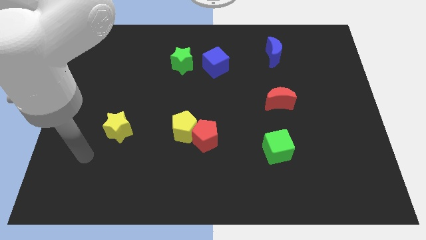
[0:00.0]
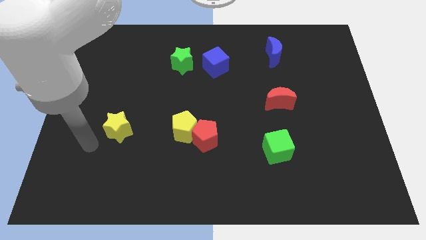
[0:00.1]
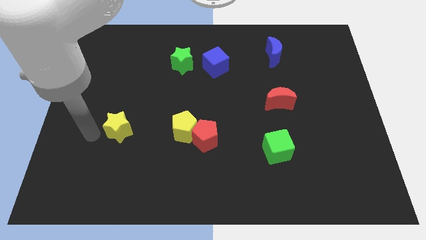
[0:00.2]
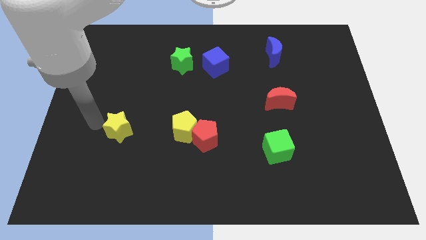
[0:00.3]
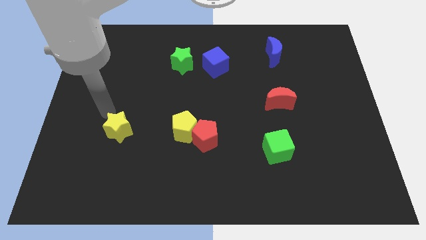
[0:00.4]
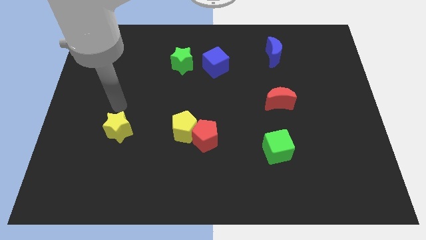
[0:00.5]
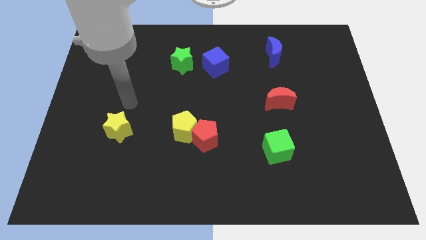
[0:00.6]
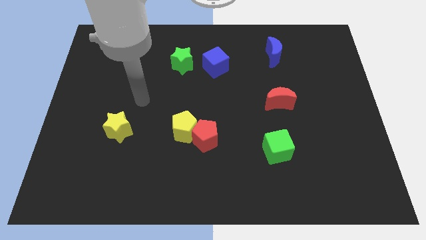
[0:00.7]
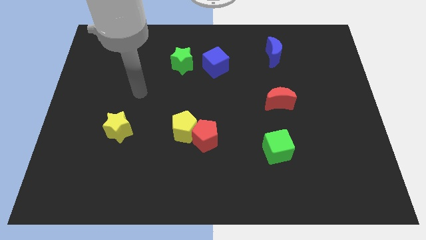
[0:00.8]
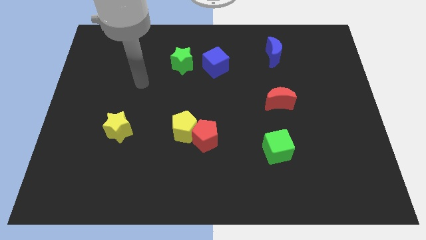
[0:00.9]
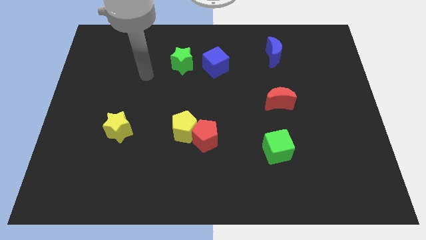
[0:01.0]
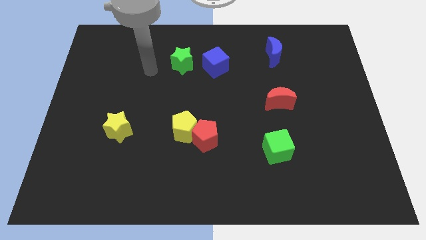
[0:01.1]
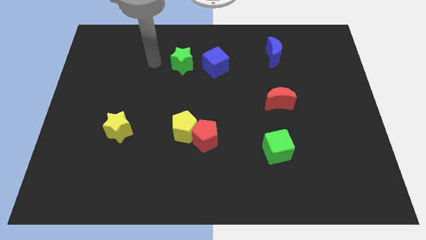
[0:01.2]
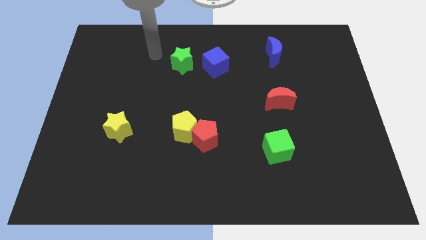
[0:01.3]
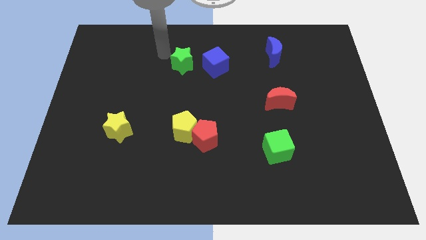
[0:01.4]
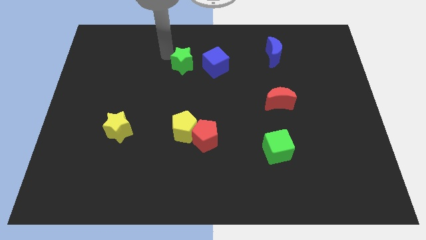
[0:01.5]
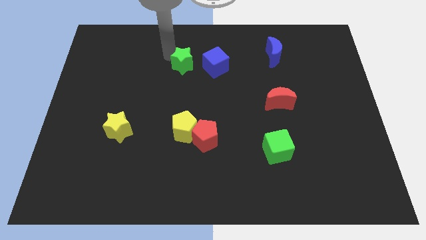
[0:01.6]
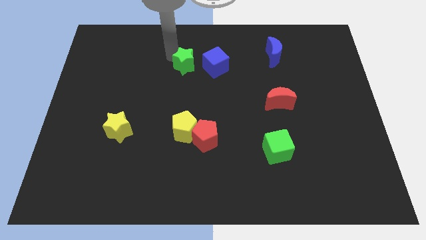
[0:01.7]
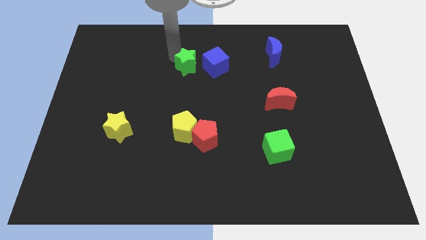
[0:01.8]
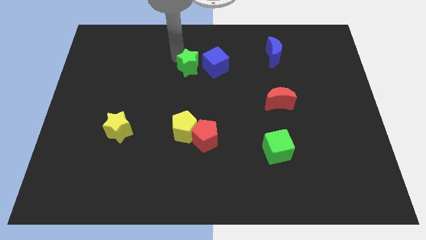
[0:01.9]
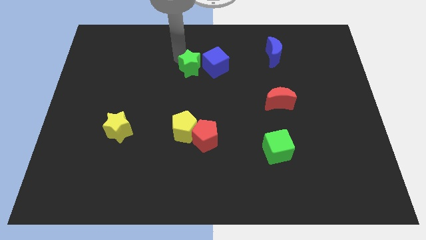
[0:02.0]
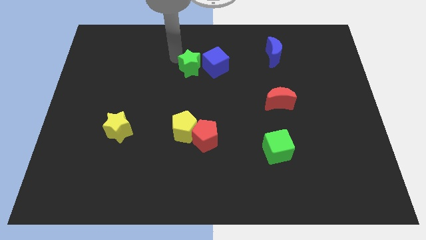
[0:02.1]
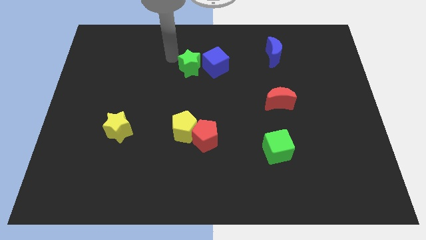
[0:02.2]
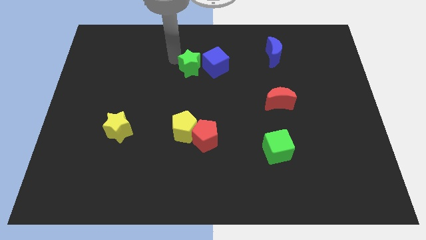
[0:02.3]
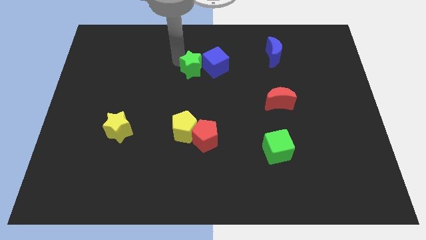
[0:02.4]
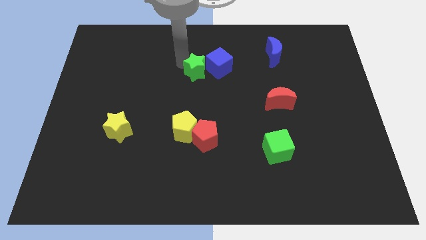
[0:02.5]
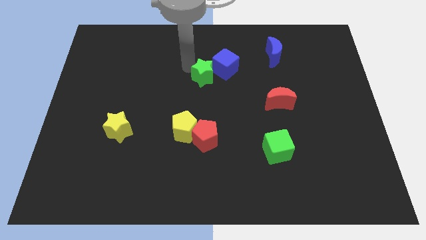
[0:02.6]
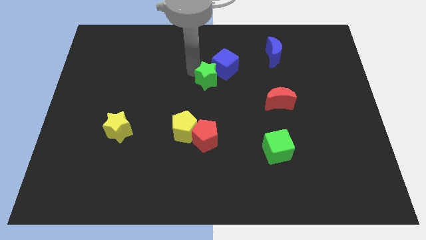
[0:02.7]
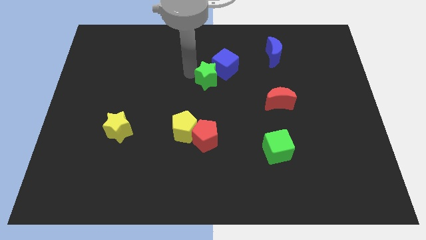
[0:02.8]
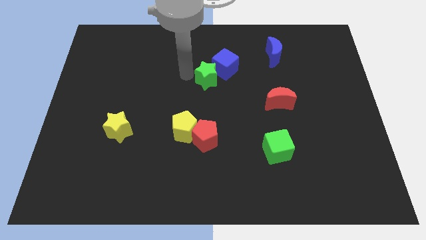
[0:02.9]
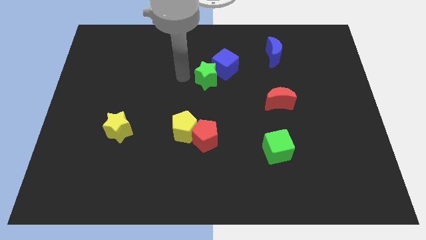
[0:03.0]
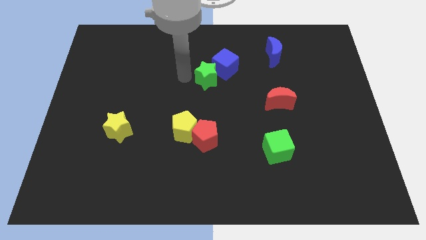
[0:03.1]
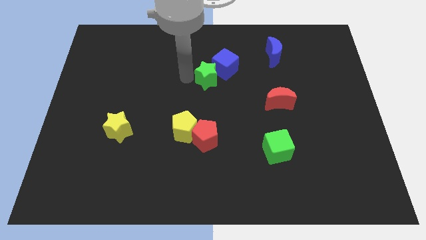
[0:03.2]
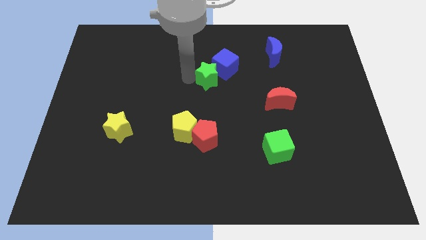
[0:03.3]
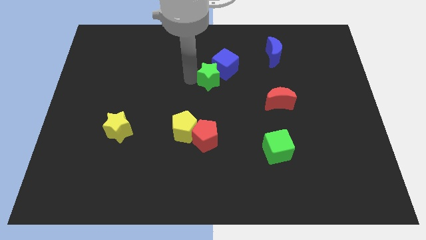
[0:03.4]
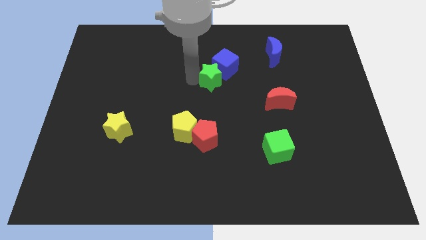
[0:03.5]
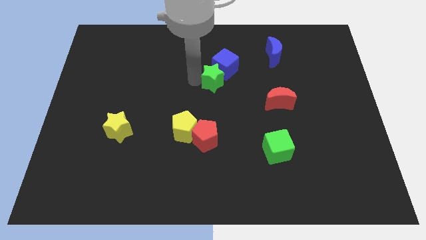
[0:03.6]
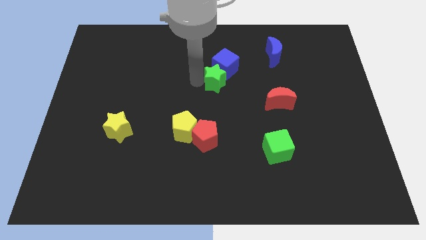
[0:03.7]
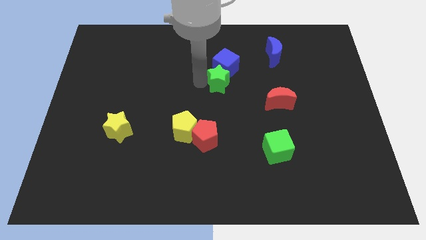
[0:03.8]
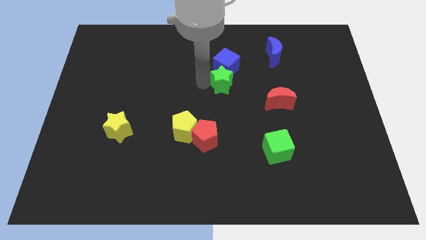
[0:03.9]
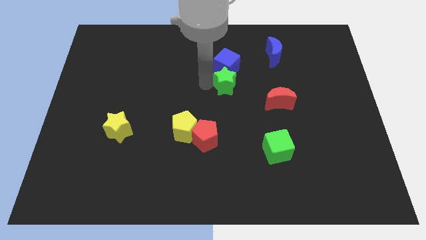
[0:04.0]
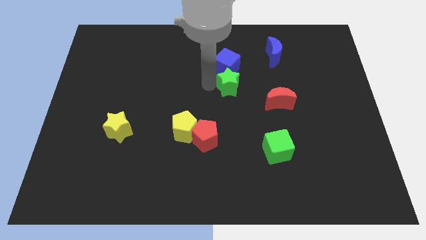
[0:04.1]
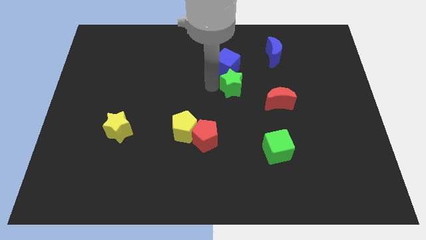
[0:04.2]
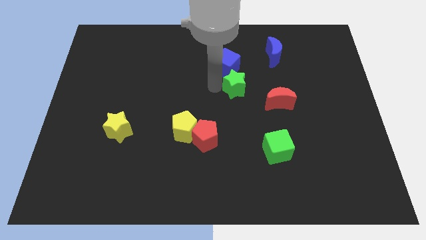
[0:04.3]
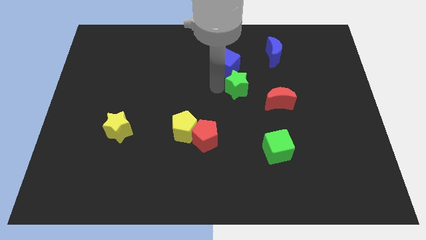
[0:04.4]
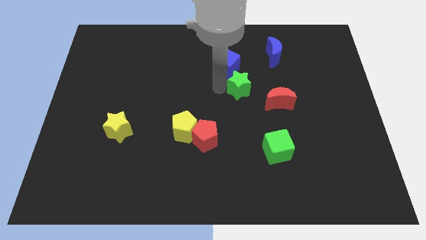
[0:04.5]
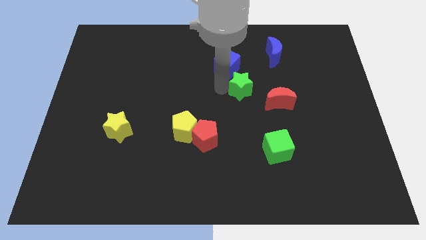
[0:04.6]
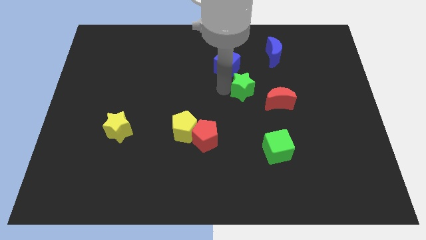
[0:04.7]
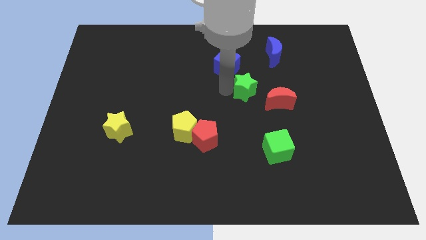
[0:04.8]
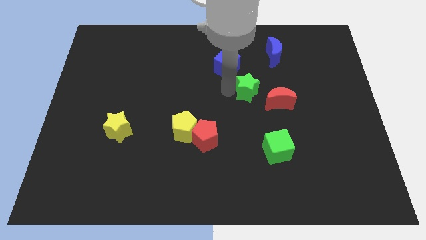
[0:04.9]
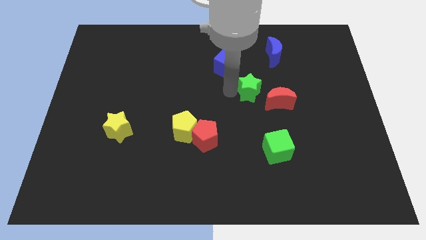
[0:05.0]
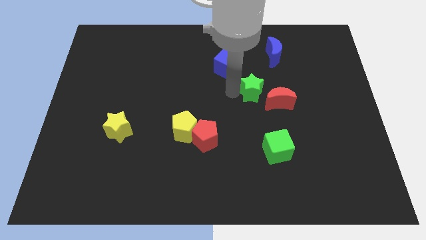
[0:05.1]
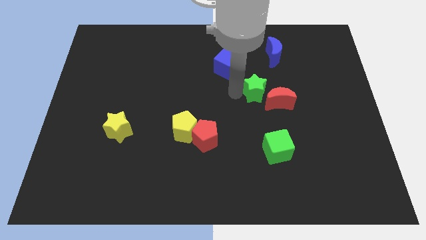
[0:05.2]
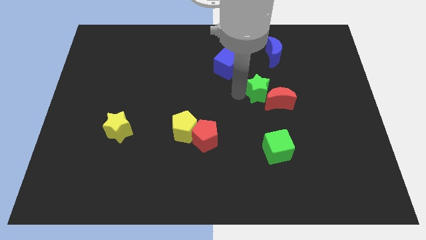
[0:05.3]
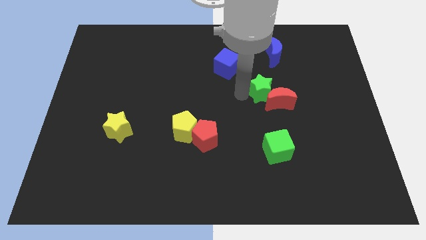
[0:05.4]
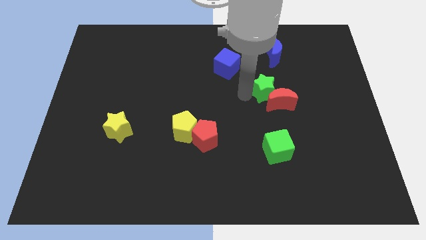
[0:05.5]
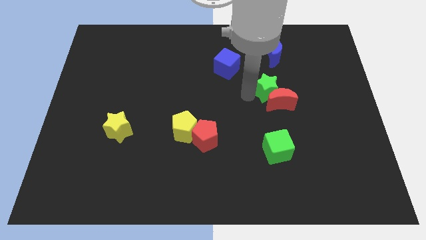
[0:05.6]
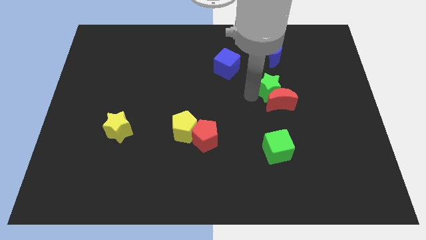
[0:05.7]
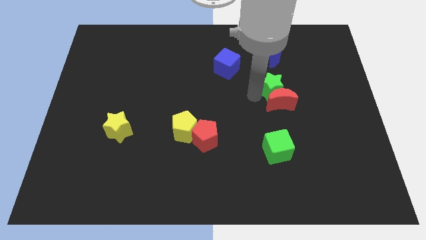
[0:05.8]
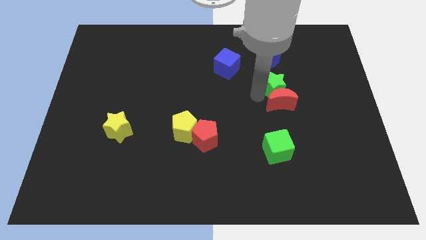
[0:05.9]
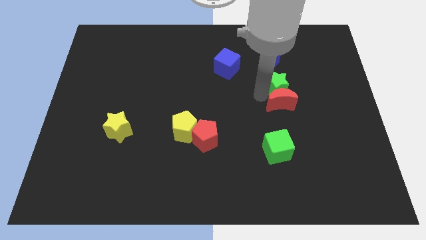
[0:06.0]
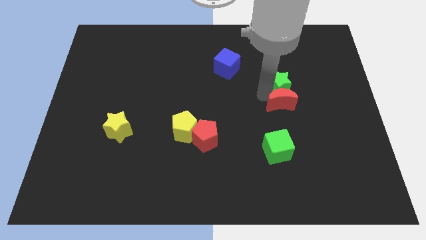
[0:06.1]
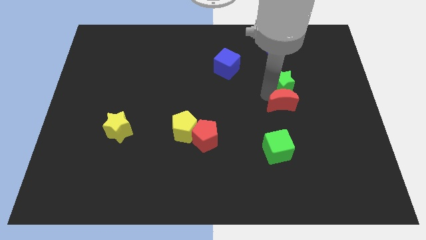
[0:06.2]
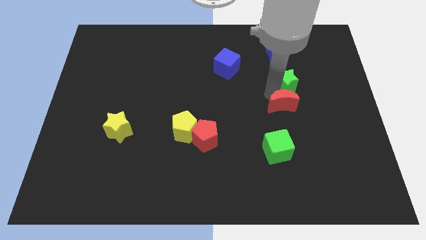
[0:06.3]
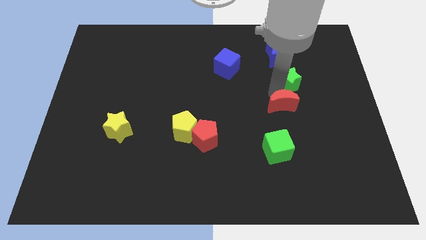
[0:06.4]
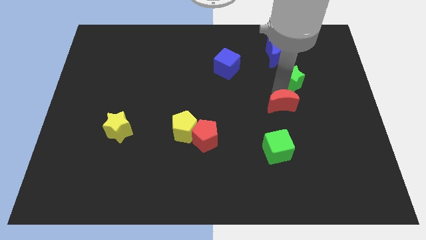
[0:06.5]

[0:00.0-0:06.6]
push the green star diagonally down and to the right of the blue moon

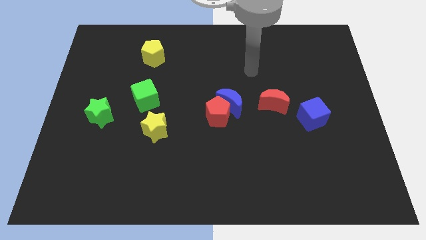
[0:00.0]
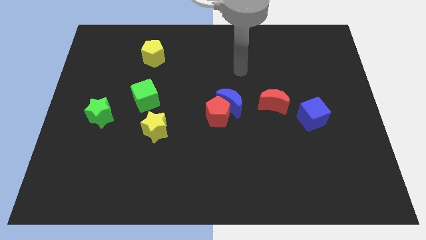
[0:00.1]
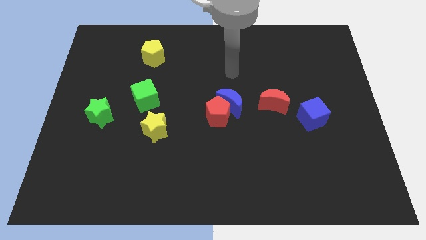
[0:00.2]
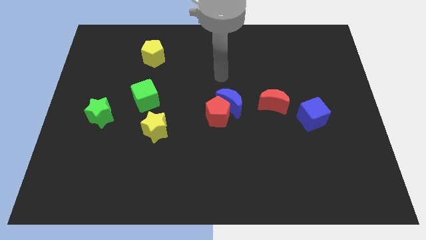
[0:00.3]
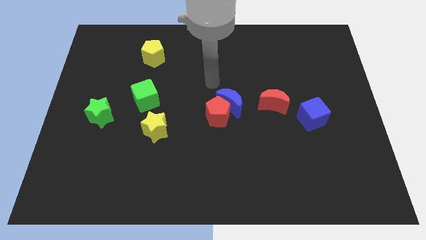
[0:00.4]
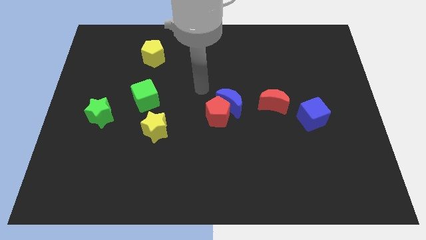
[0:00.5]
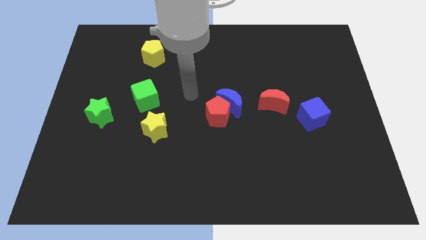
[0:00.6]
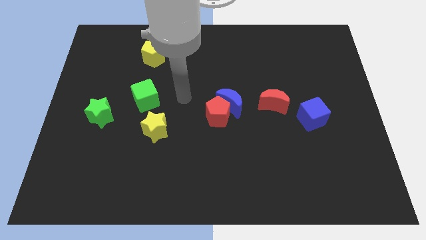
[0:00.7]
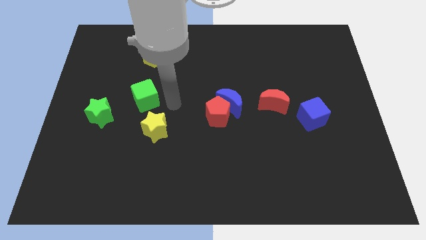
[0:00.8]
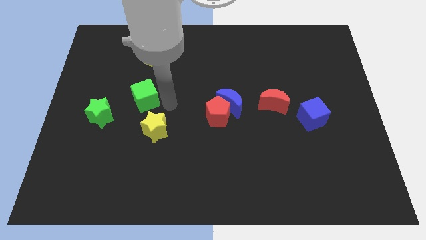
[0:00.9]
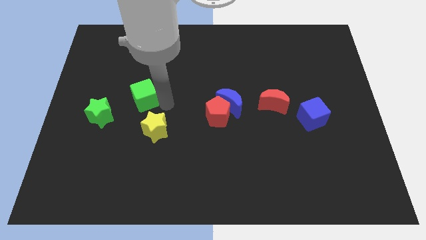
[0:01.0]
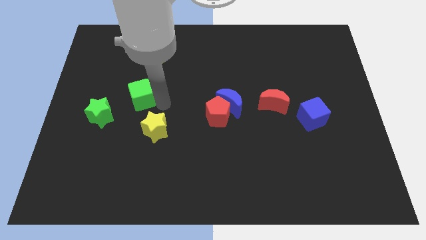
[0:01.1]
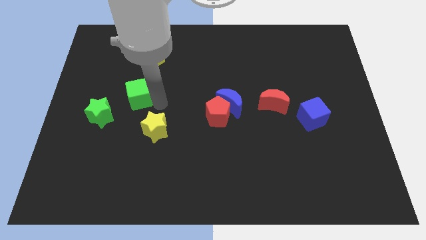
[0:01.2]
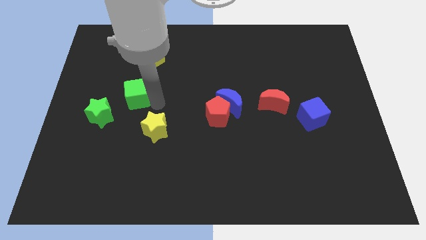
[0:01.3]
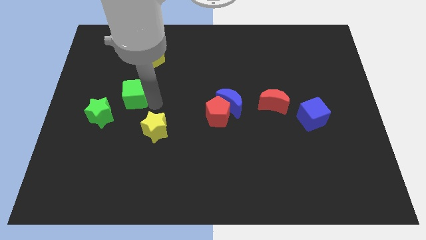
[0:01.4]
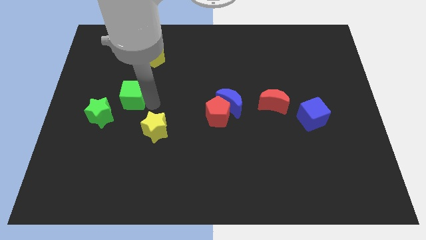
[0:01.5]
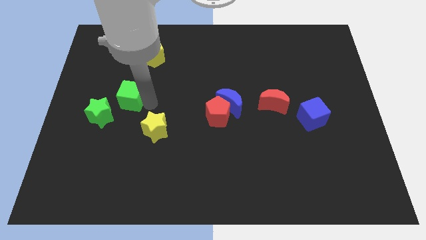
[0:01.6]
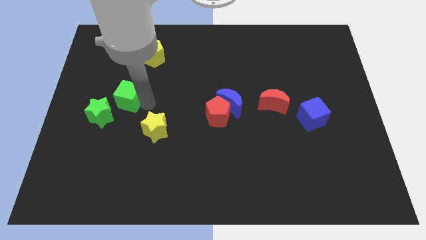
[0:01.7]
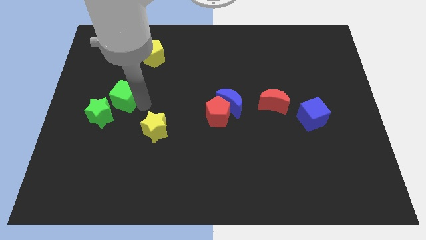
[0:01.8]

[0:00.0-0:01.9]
slide the green cube to the top side of the green star
